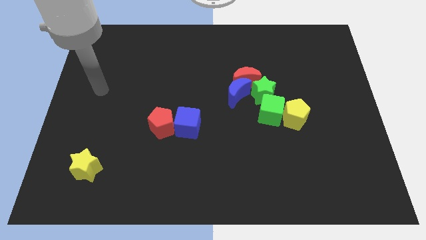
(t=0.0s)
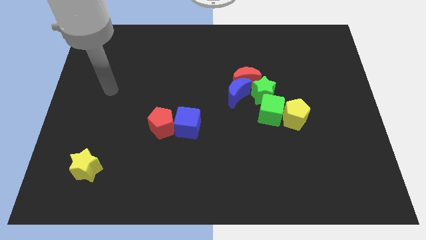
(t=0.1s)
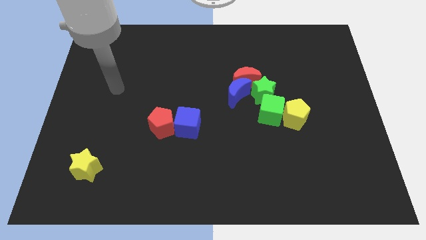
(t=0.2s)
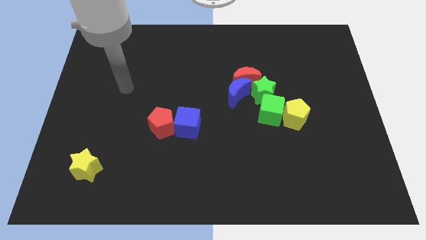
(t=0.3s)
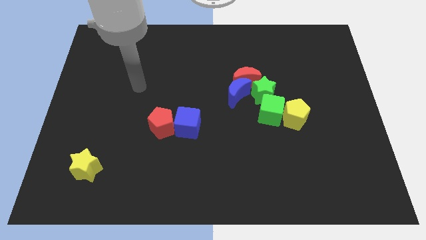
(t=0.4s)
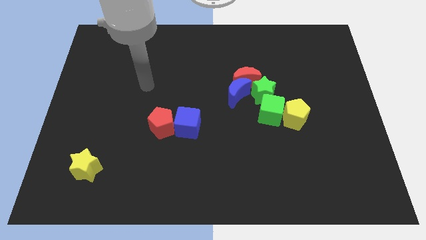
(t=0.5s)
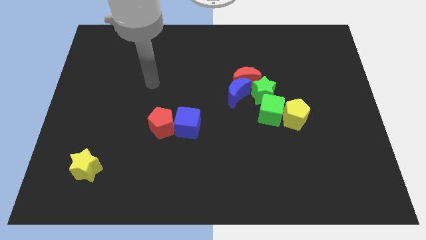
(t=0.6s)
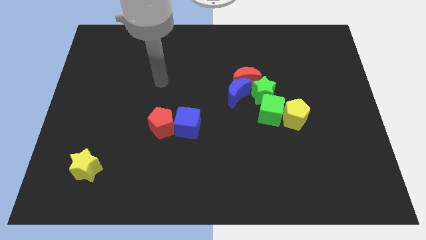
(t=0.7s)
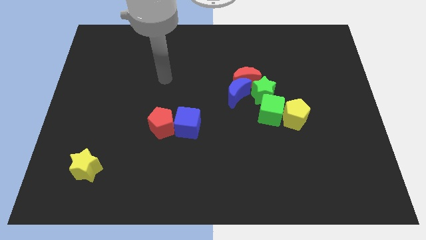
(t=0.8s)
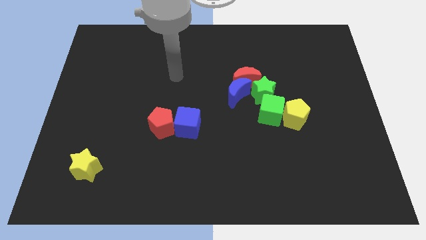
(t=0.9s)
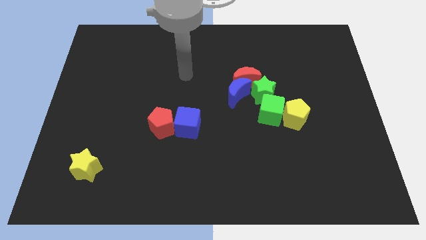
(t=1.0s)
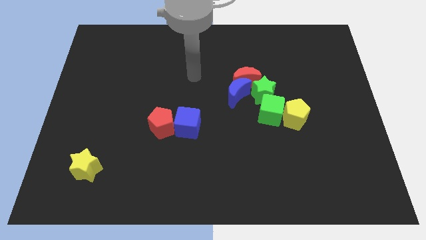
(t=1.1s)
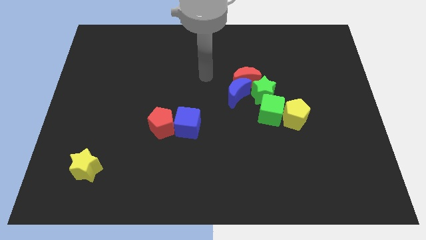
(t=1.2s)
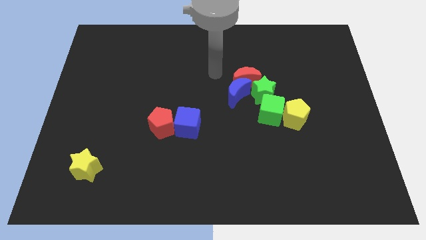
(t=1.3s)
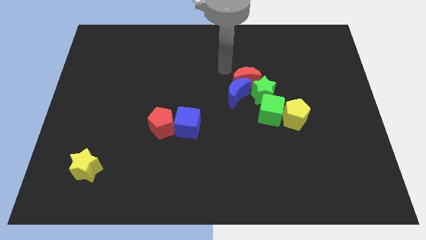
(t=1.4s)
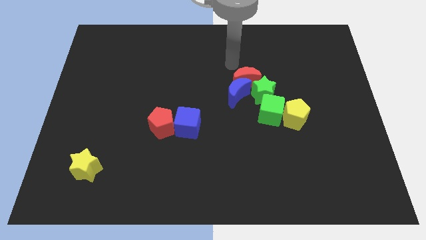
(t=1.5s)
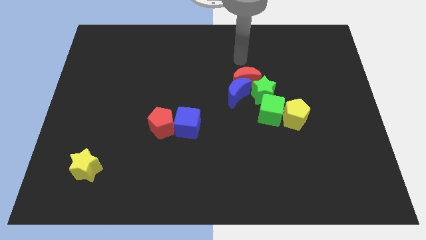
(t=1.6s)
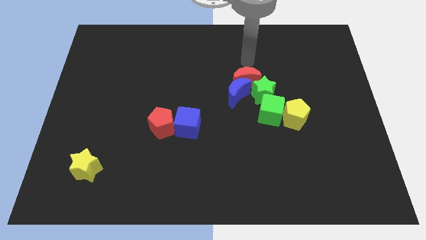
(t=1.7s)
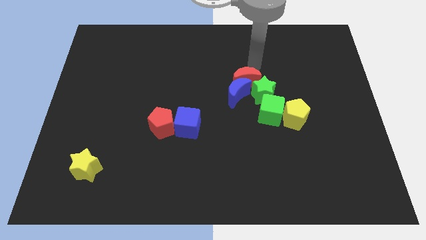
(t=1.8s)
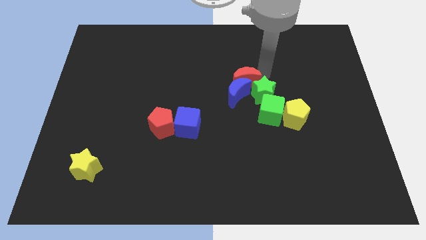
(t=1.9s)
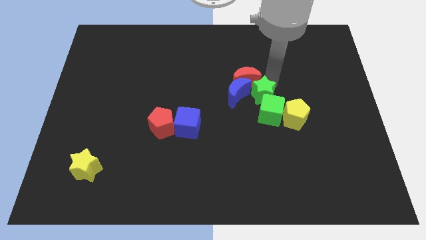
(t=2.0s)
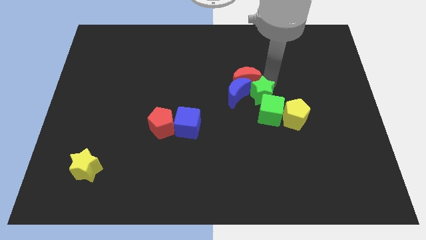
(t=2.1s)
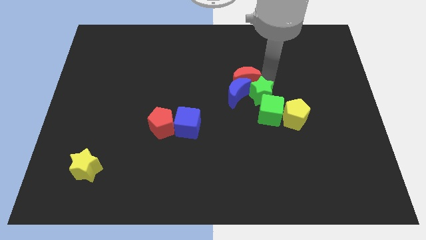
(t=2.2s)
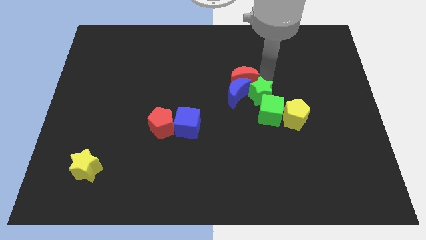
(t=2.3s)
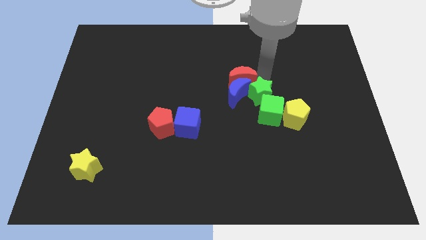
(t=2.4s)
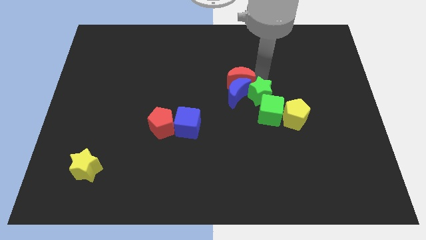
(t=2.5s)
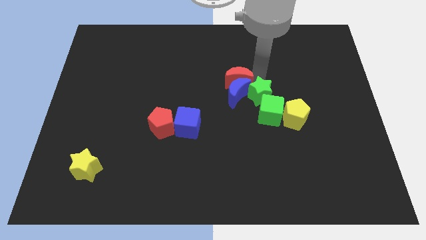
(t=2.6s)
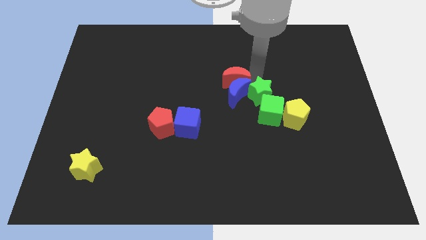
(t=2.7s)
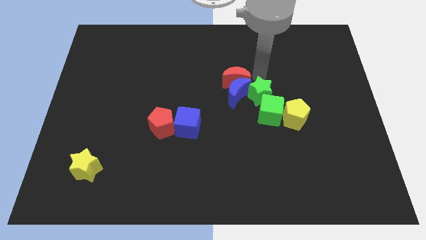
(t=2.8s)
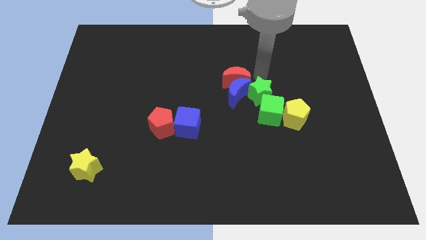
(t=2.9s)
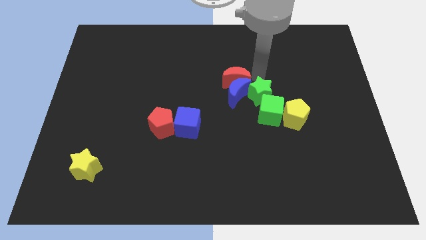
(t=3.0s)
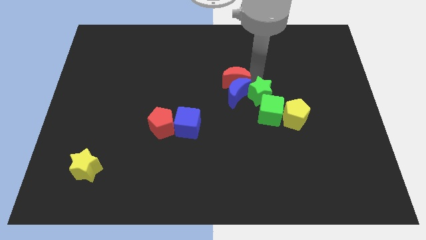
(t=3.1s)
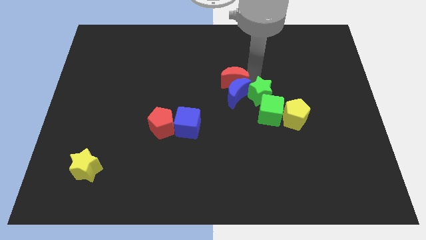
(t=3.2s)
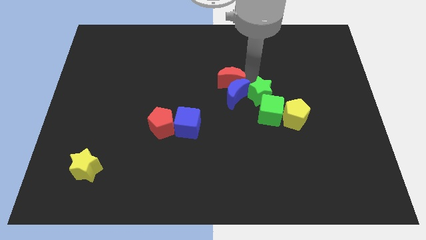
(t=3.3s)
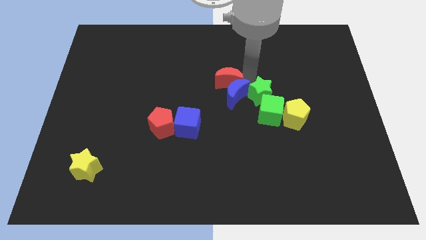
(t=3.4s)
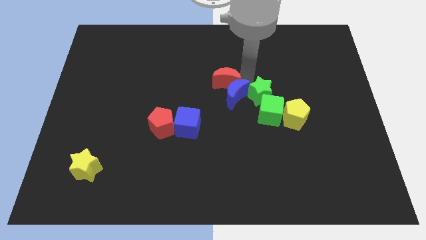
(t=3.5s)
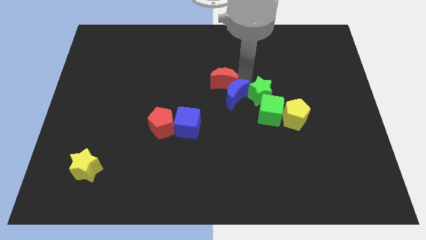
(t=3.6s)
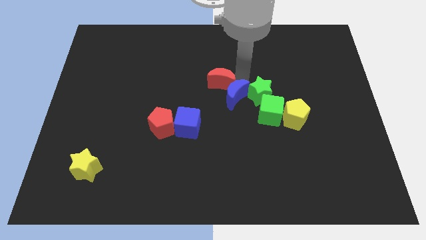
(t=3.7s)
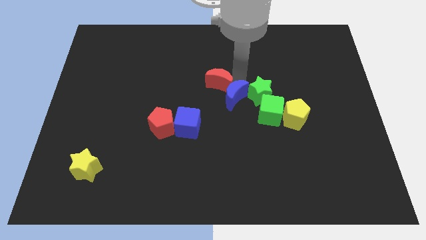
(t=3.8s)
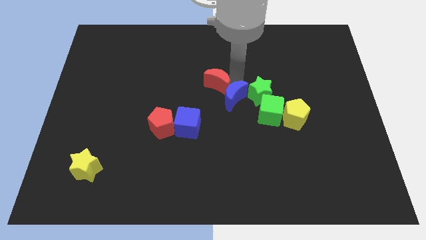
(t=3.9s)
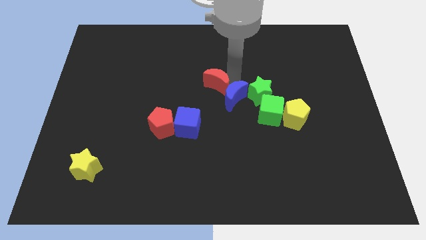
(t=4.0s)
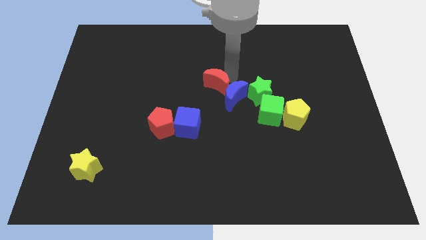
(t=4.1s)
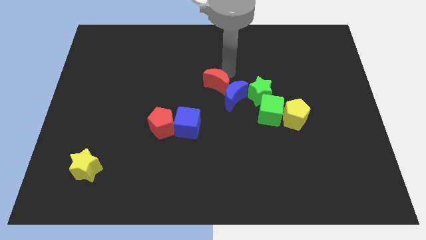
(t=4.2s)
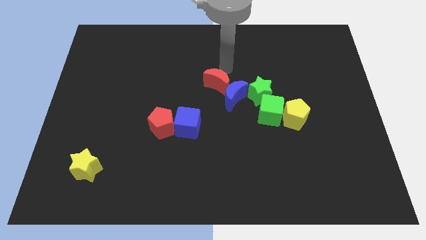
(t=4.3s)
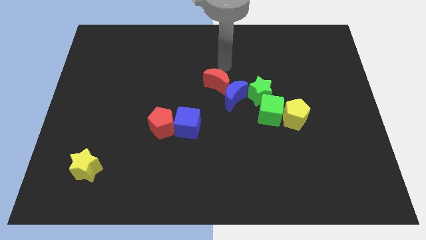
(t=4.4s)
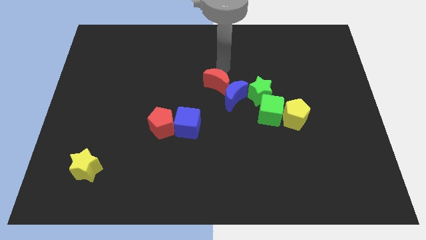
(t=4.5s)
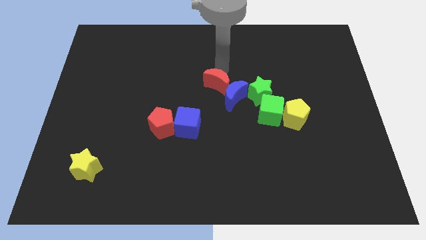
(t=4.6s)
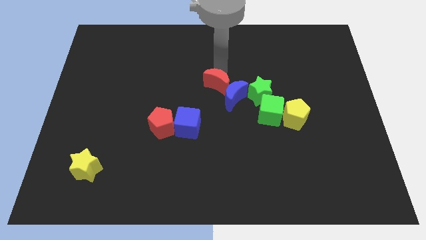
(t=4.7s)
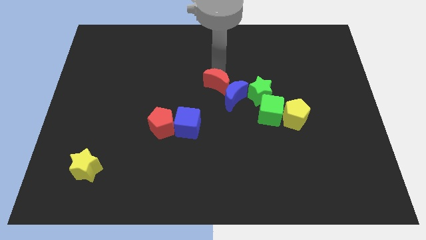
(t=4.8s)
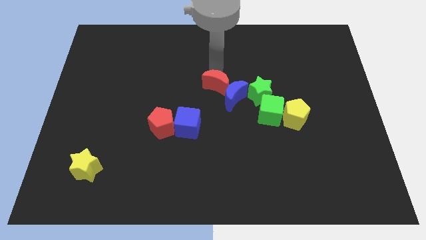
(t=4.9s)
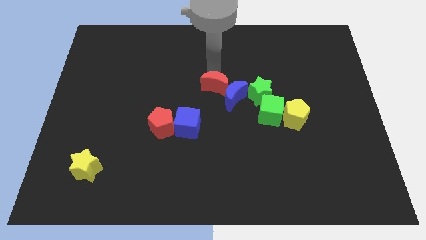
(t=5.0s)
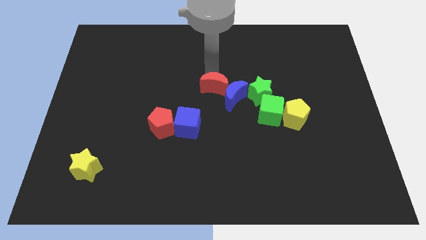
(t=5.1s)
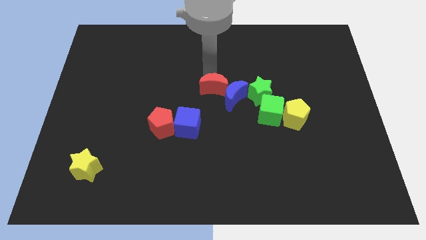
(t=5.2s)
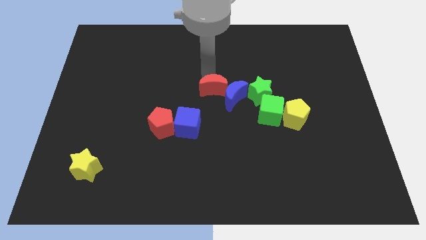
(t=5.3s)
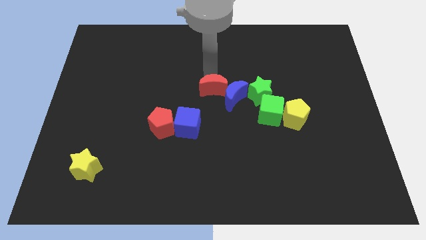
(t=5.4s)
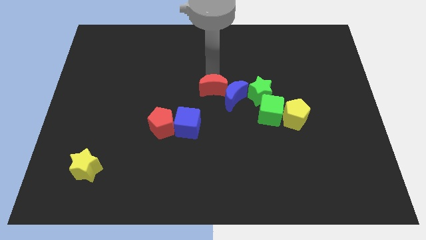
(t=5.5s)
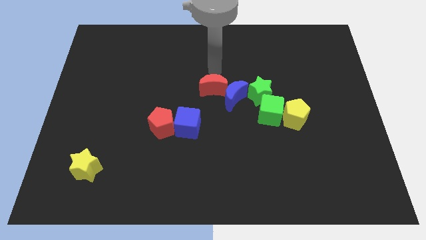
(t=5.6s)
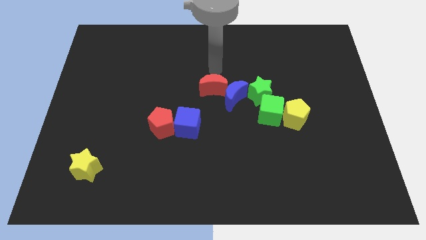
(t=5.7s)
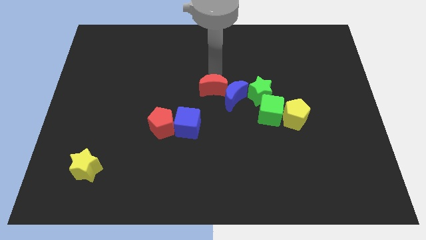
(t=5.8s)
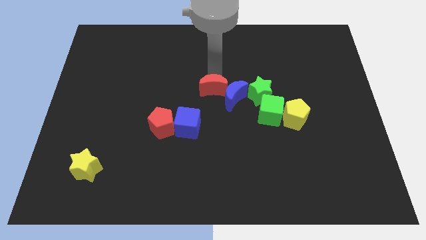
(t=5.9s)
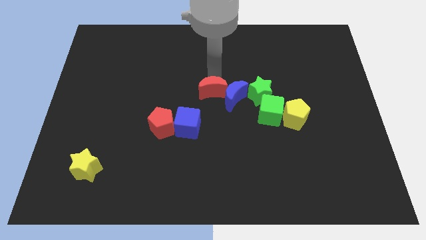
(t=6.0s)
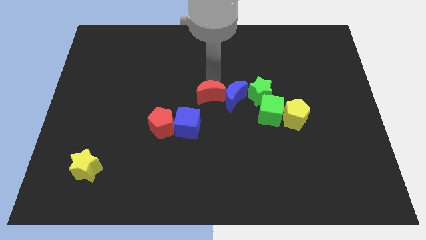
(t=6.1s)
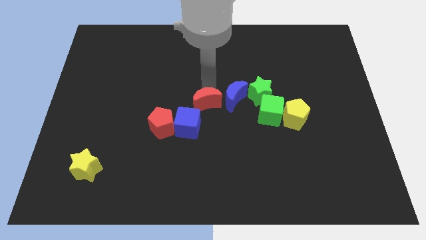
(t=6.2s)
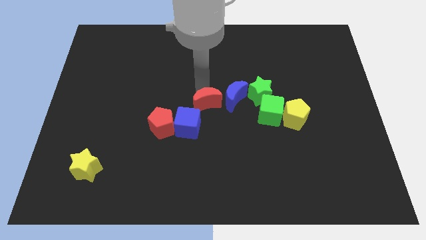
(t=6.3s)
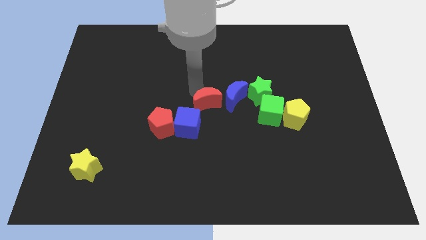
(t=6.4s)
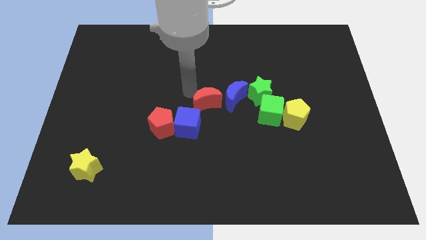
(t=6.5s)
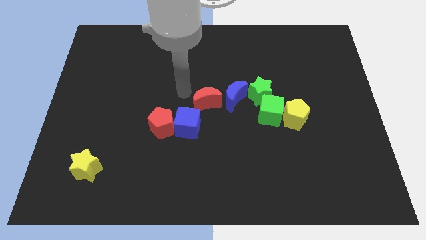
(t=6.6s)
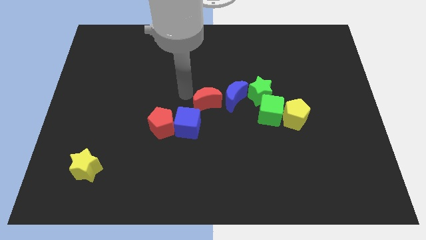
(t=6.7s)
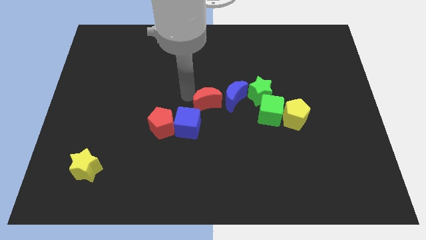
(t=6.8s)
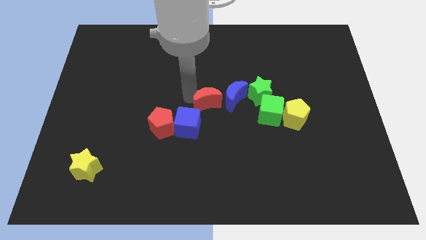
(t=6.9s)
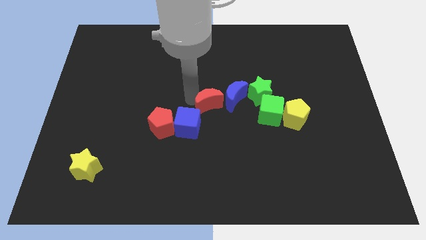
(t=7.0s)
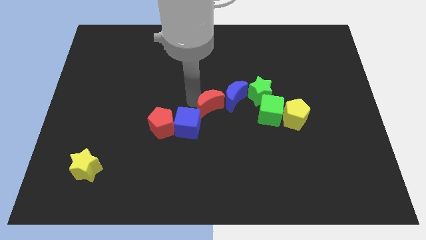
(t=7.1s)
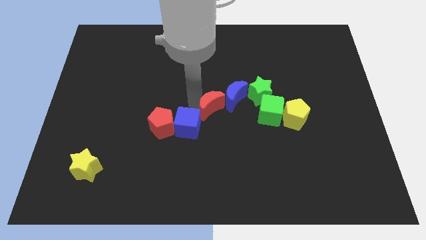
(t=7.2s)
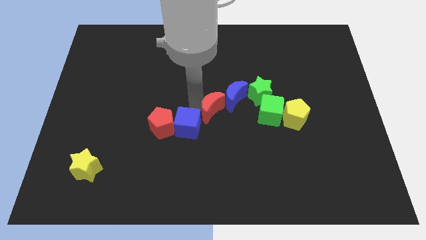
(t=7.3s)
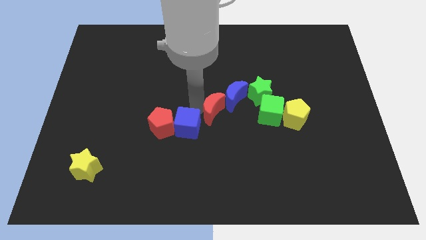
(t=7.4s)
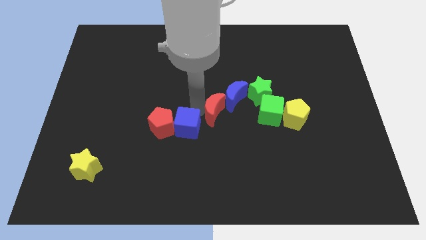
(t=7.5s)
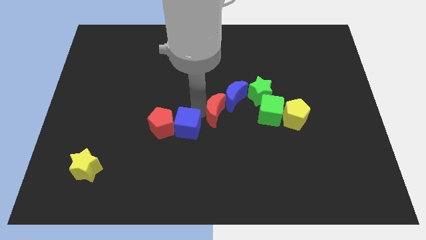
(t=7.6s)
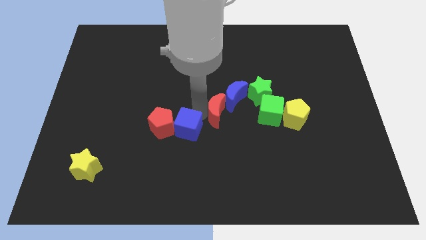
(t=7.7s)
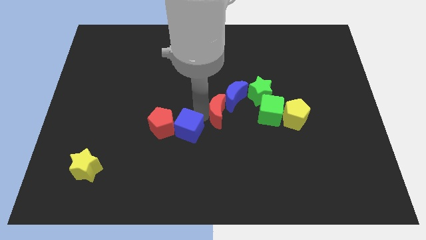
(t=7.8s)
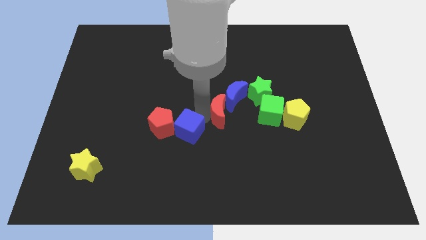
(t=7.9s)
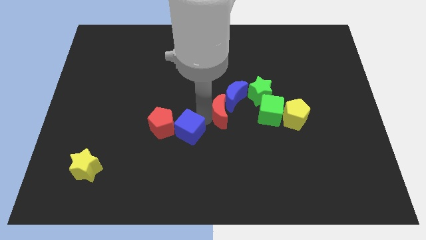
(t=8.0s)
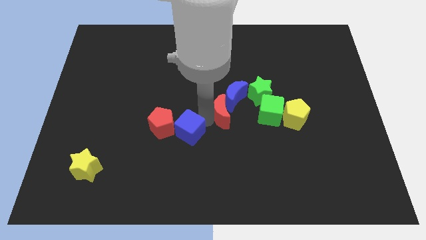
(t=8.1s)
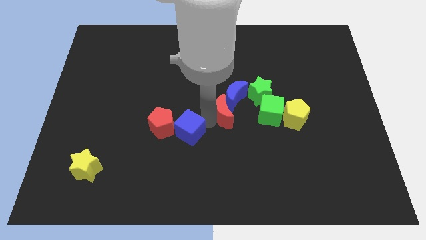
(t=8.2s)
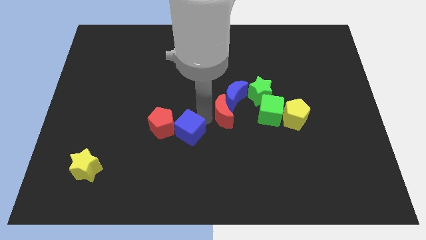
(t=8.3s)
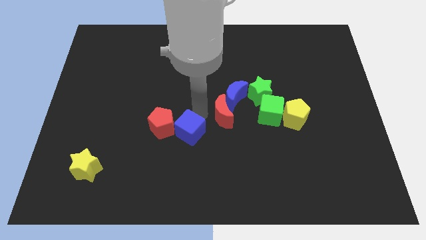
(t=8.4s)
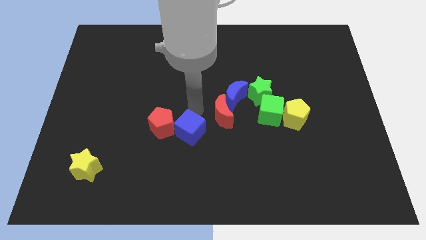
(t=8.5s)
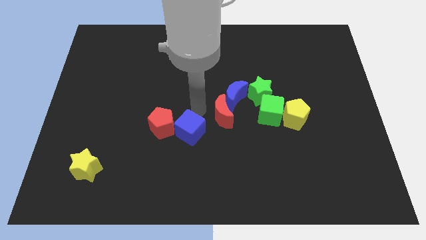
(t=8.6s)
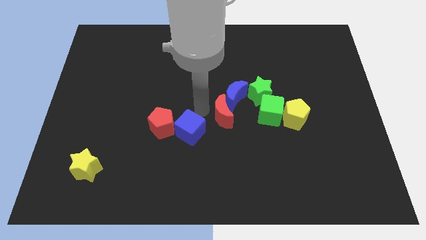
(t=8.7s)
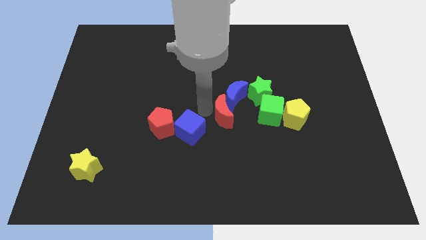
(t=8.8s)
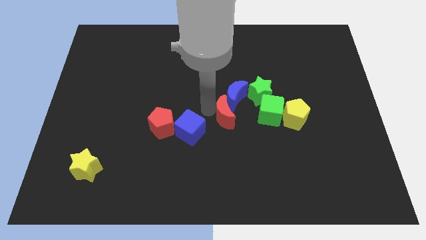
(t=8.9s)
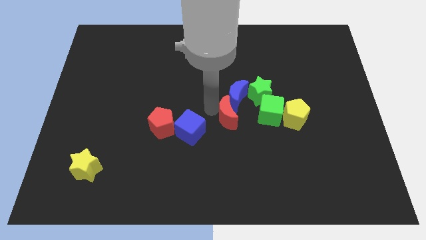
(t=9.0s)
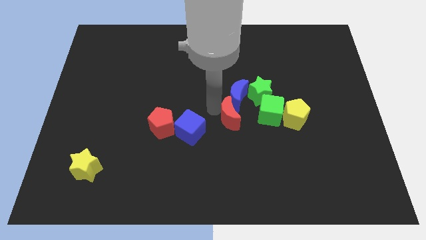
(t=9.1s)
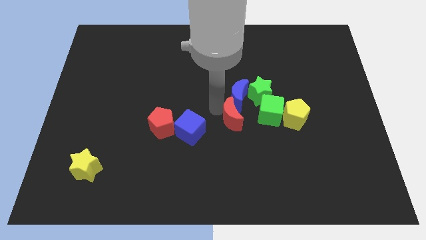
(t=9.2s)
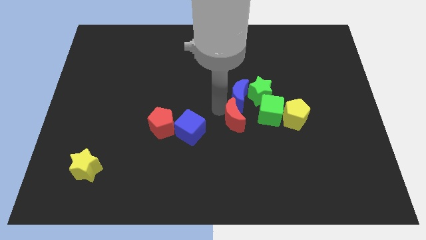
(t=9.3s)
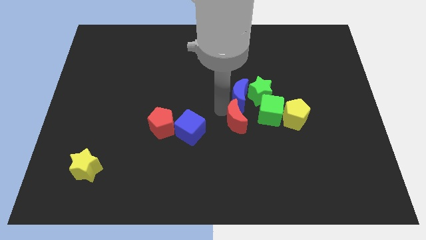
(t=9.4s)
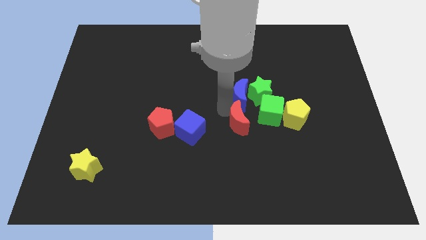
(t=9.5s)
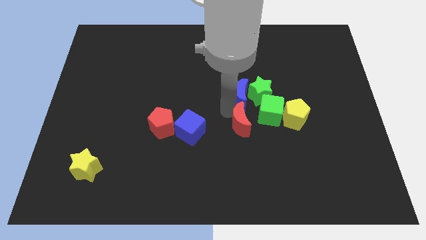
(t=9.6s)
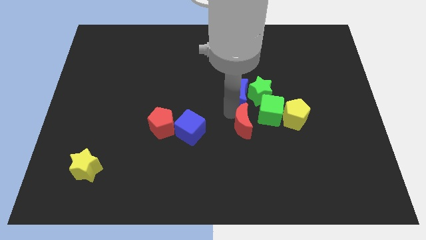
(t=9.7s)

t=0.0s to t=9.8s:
slide the red moon below the green star
